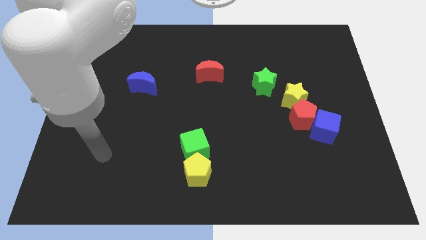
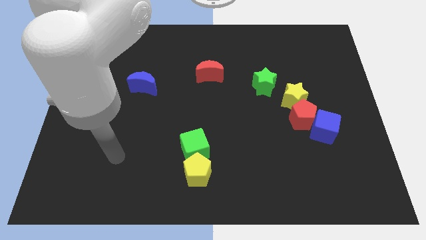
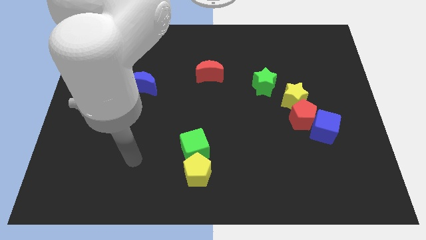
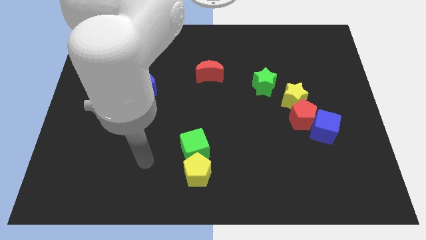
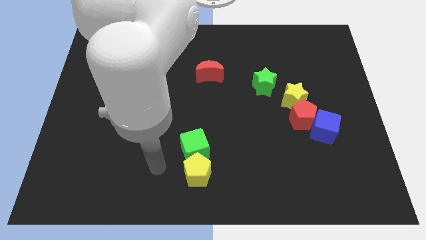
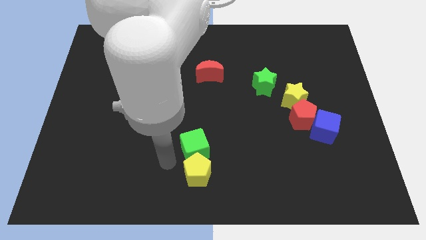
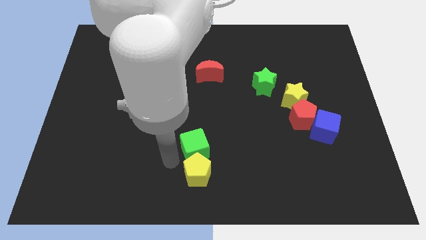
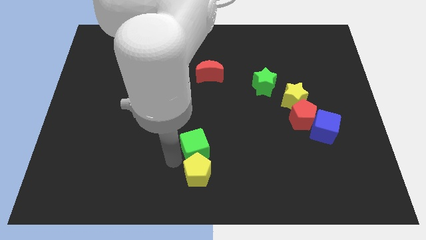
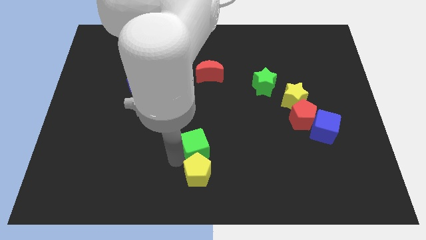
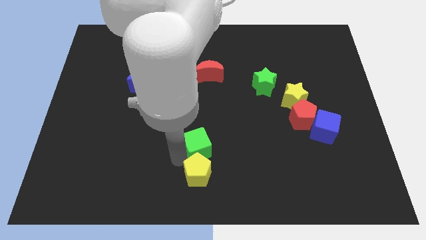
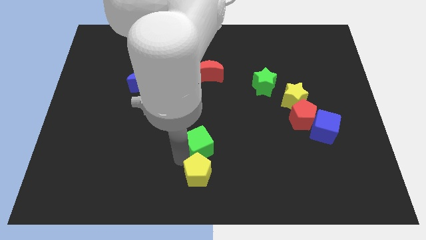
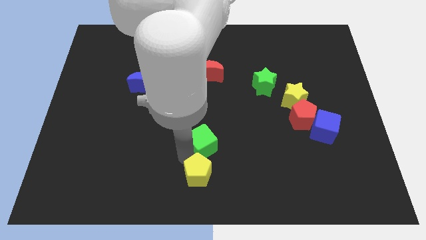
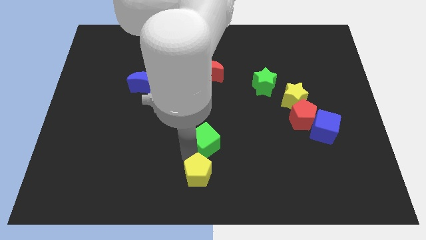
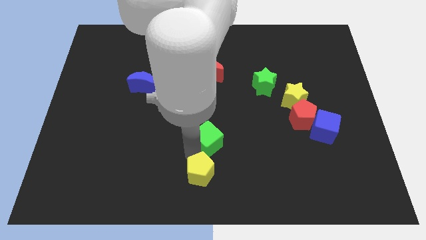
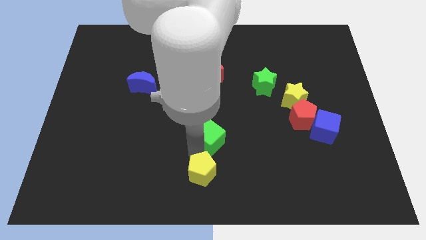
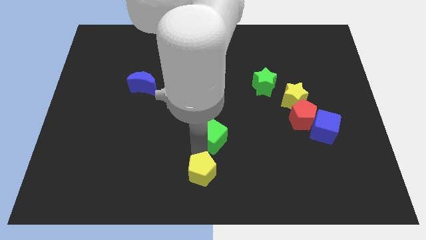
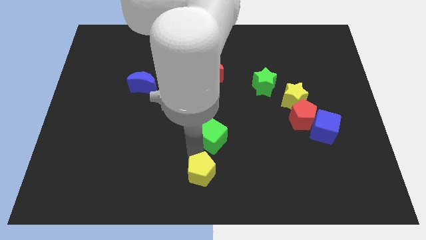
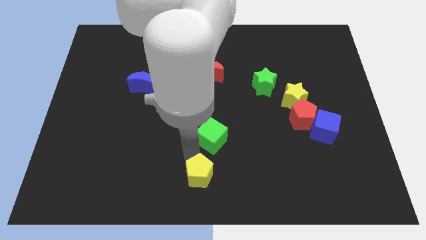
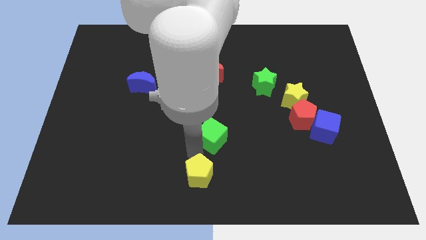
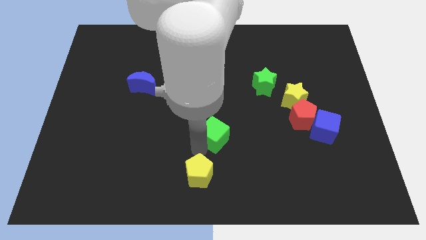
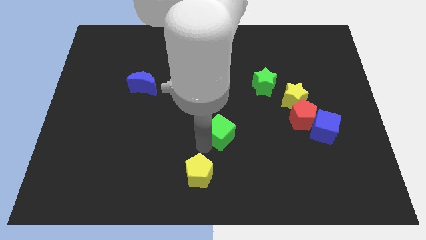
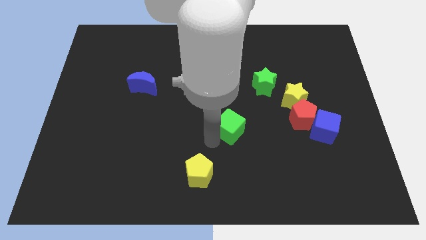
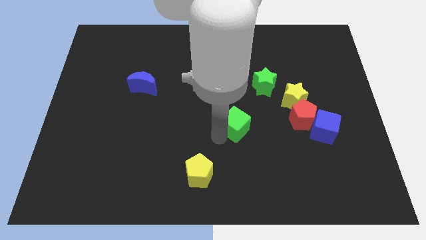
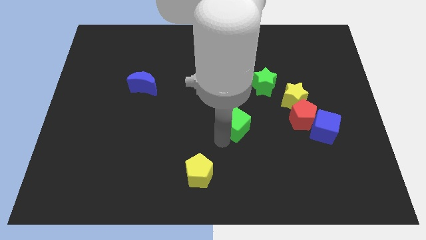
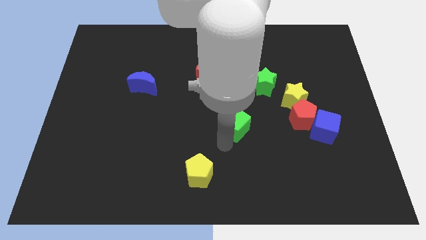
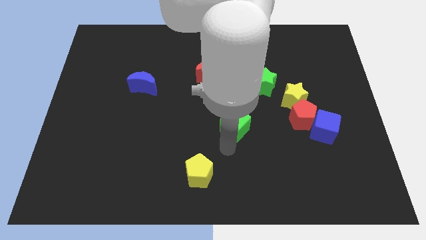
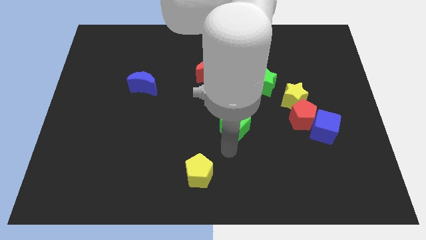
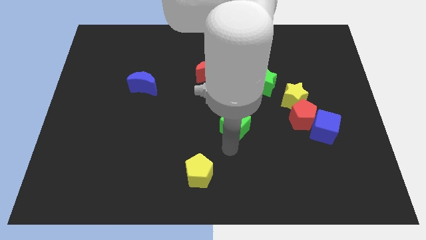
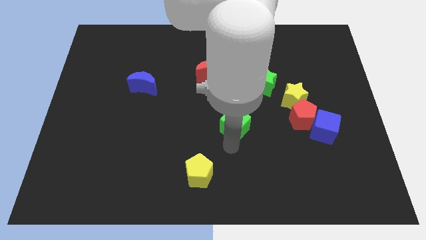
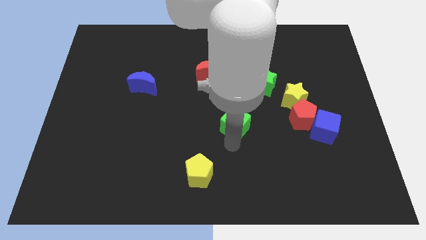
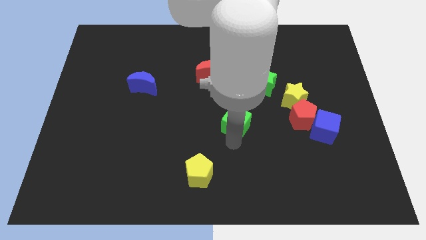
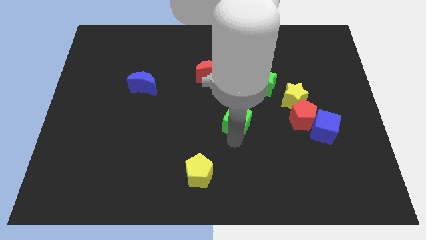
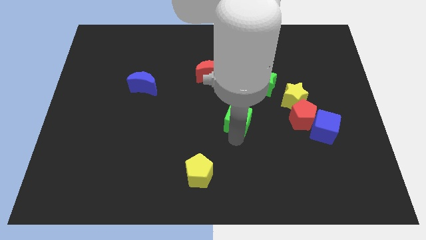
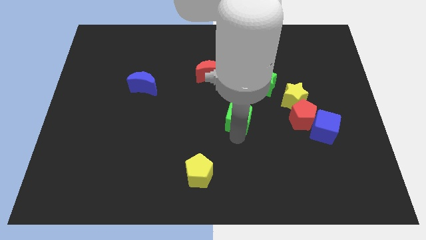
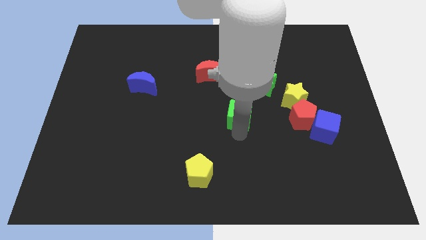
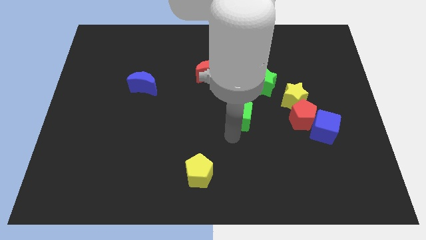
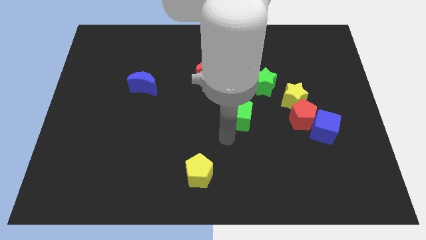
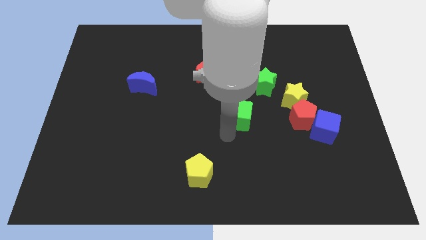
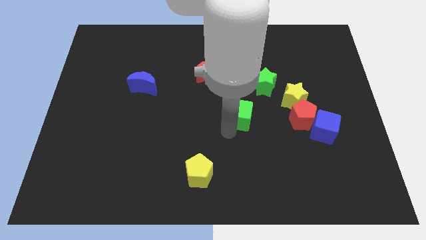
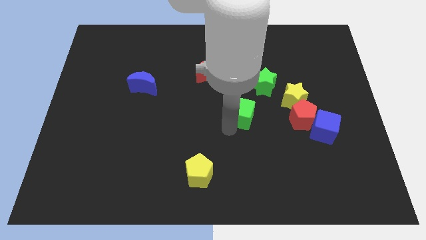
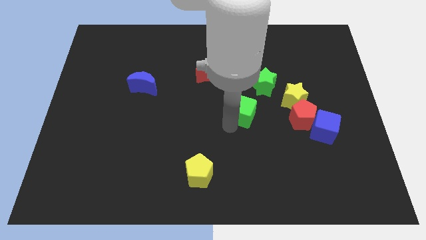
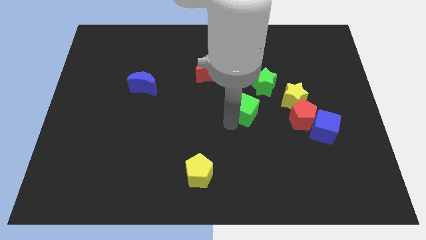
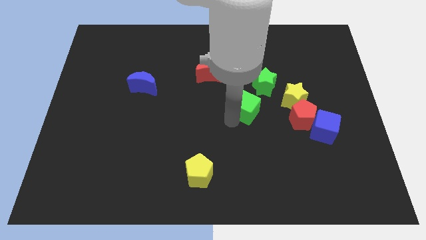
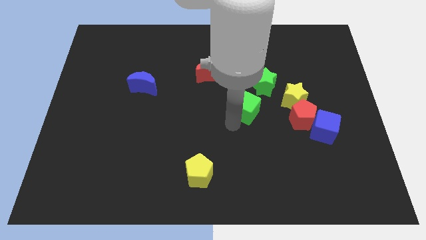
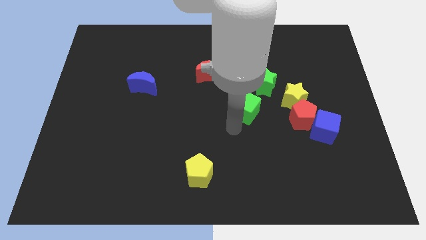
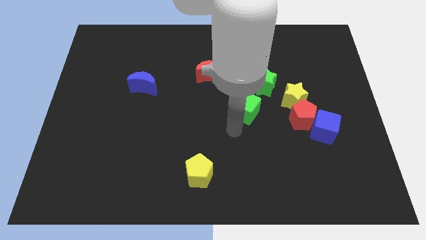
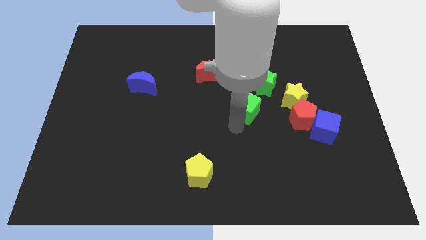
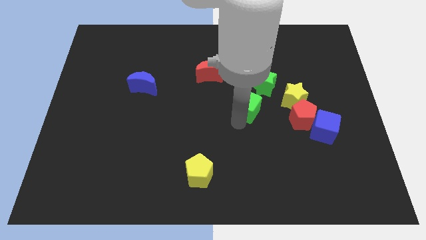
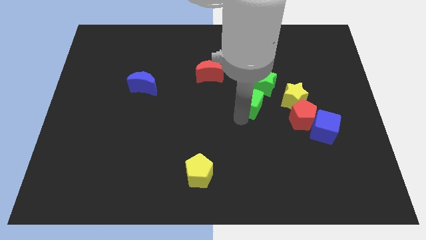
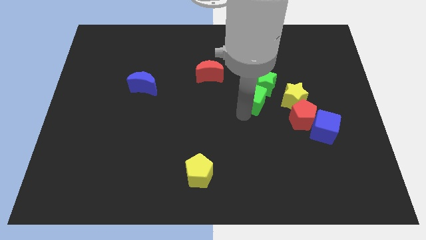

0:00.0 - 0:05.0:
push the green cube close to the green star

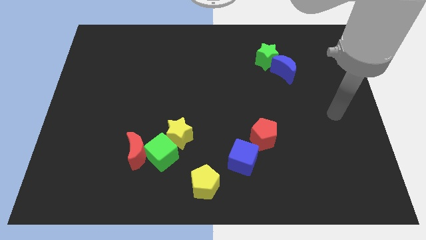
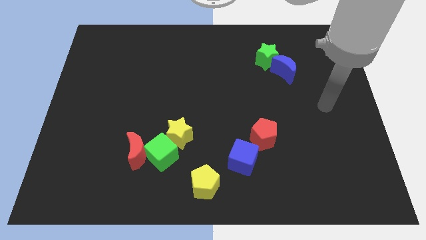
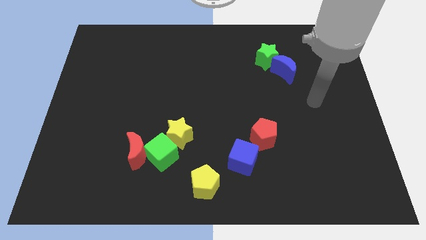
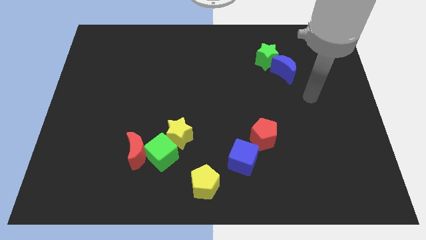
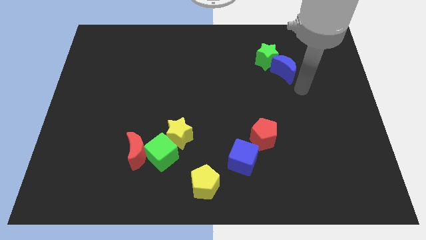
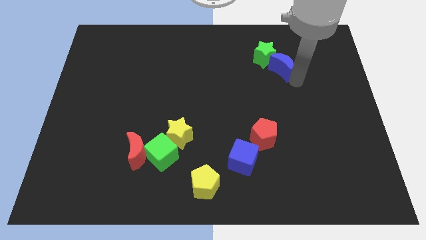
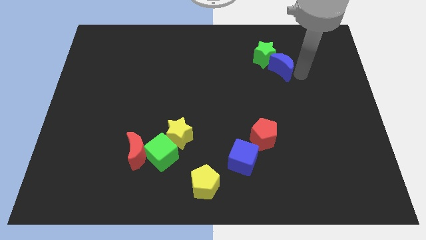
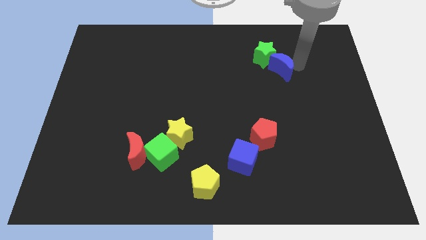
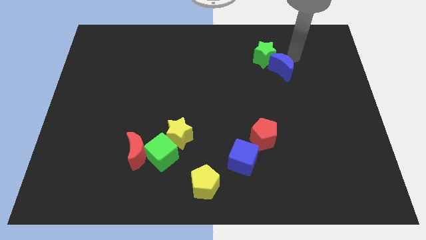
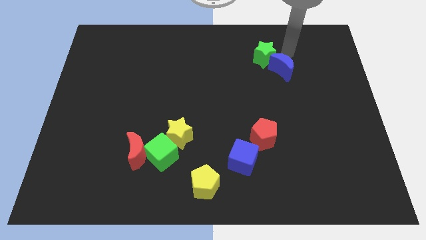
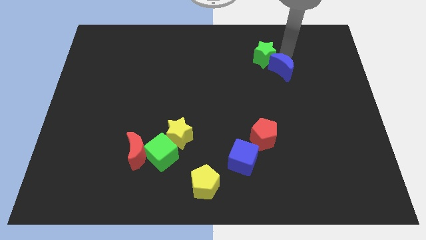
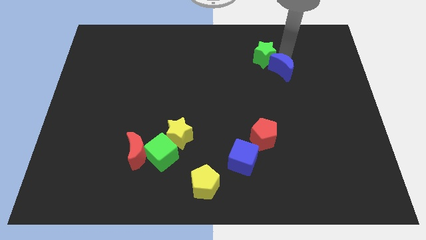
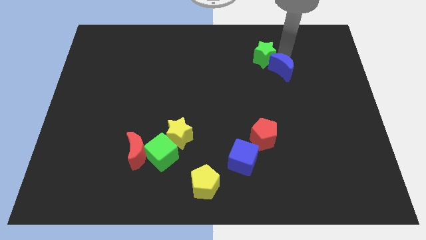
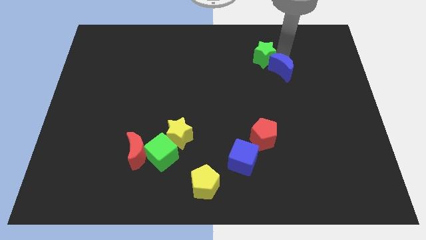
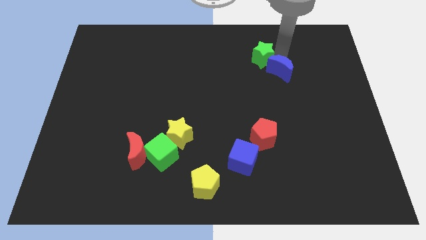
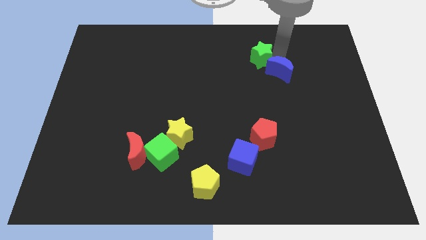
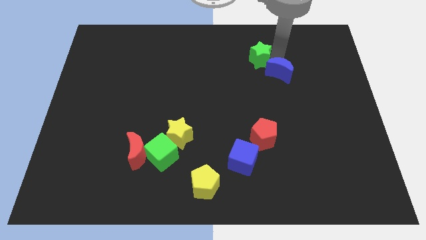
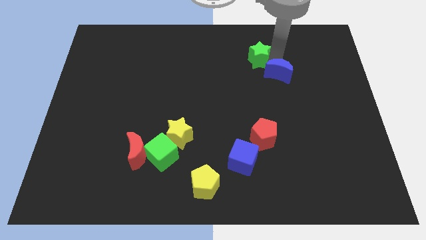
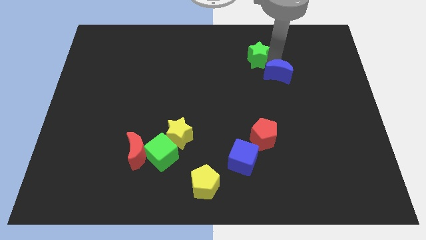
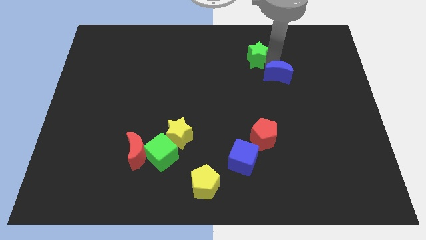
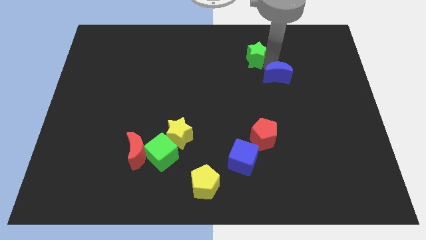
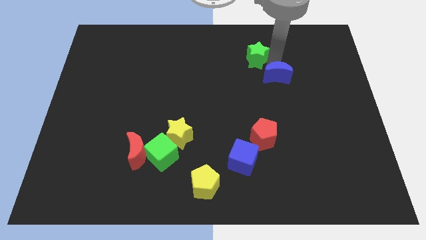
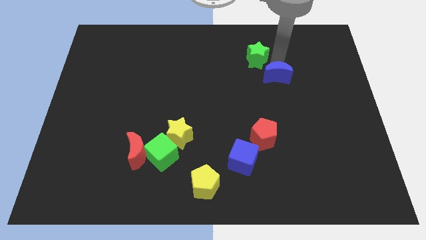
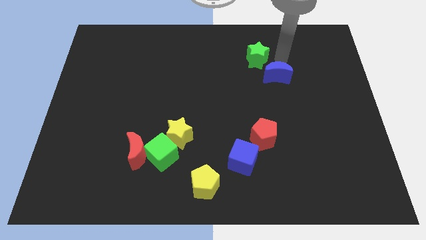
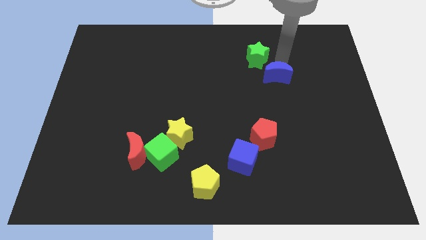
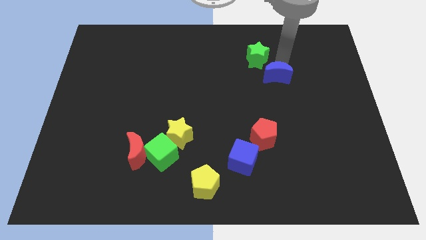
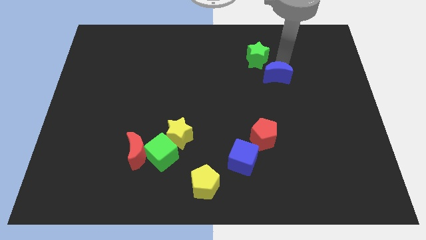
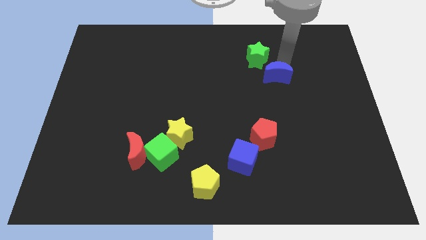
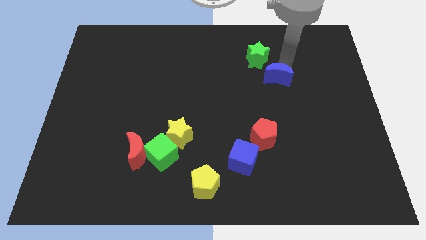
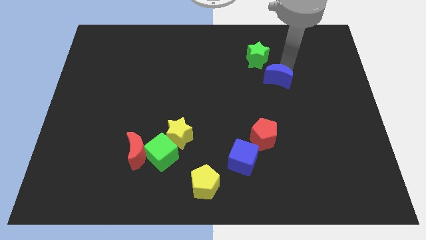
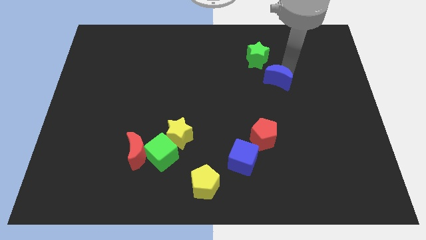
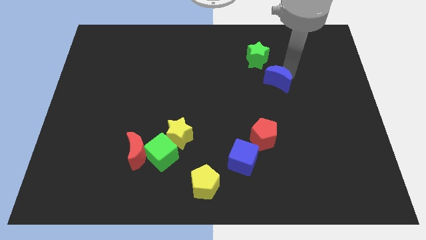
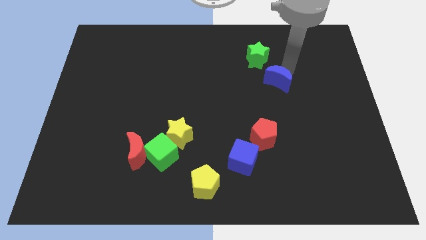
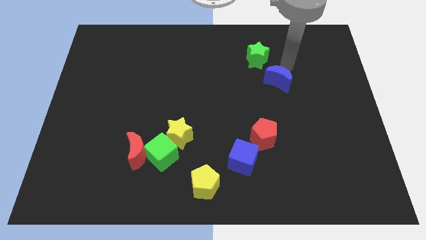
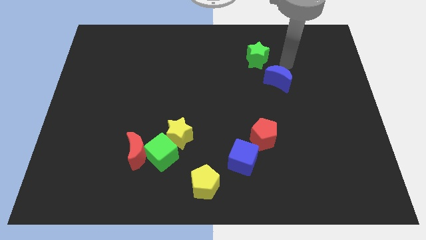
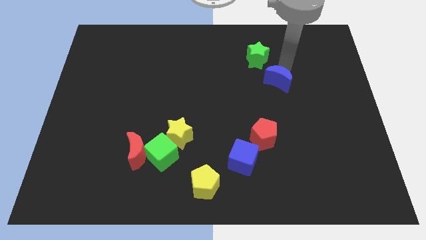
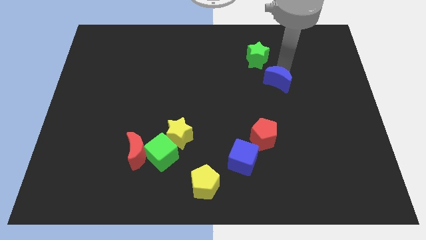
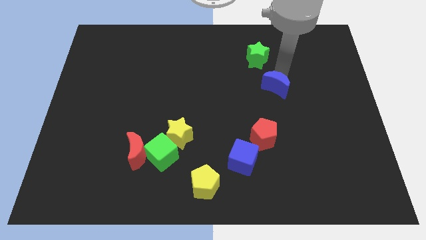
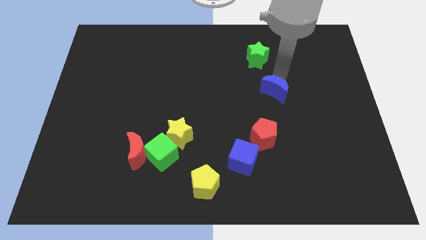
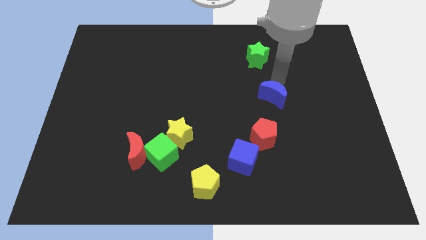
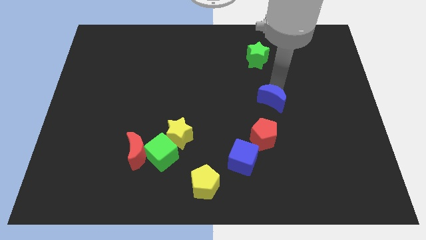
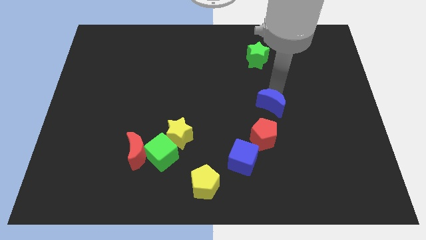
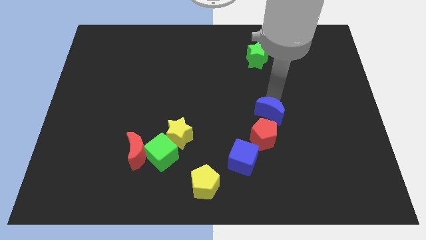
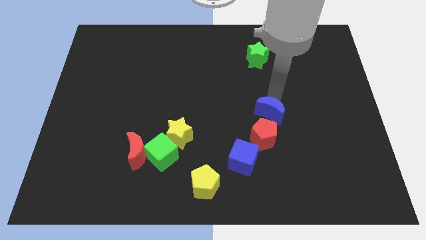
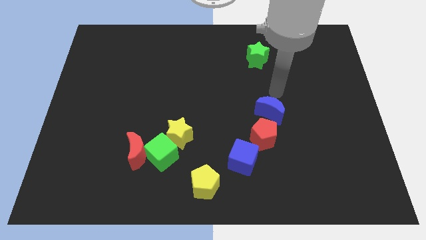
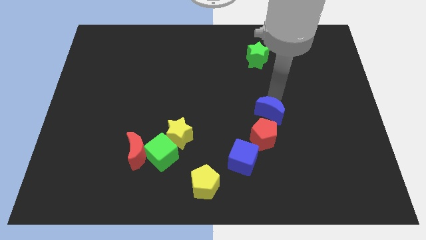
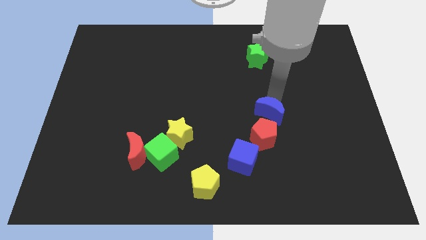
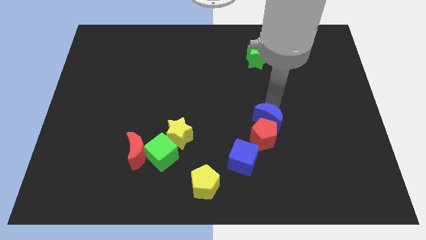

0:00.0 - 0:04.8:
move the blue moon next to the red pentagon
